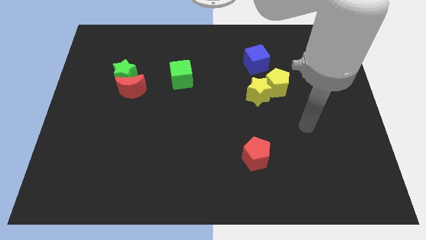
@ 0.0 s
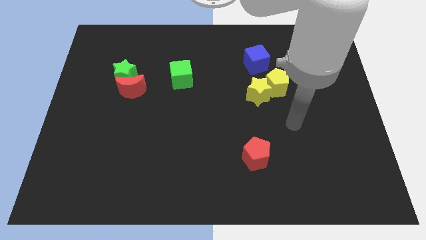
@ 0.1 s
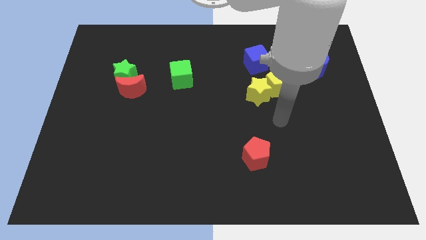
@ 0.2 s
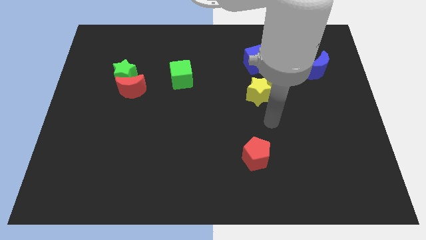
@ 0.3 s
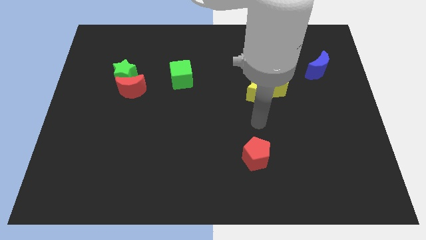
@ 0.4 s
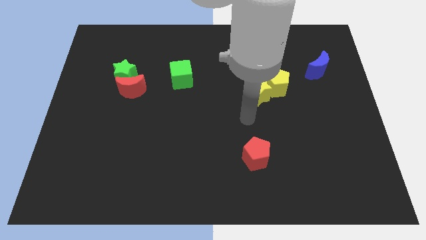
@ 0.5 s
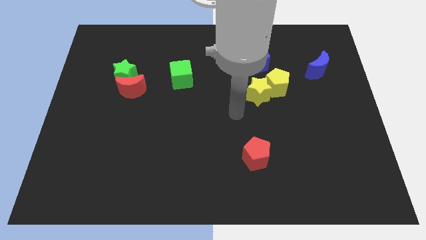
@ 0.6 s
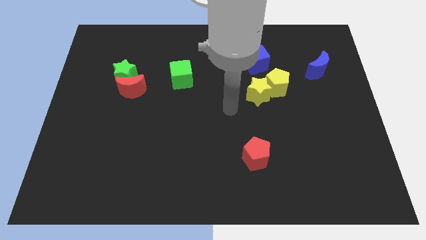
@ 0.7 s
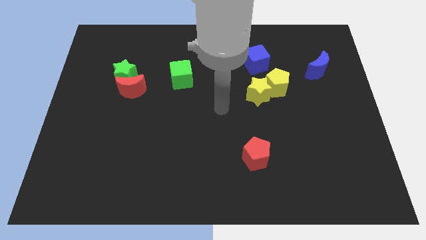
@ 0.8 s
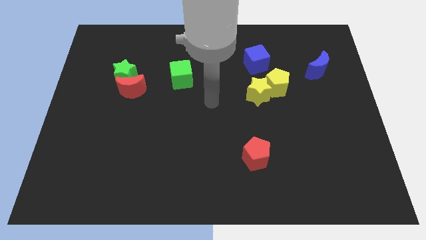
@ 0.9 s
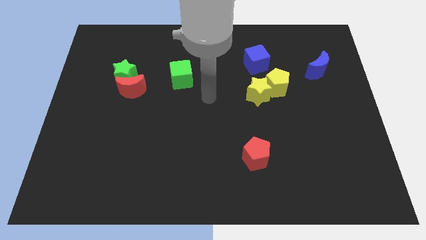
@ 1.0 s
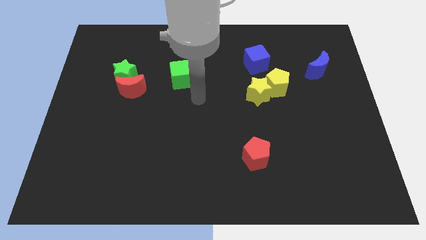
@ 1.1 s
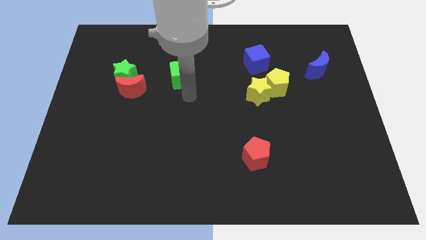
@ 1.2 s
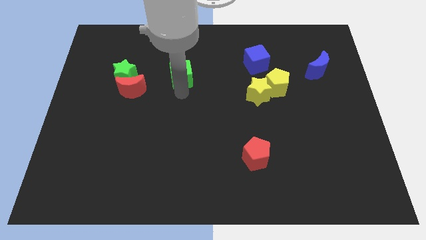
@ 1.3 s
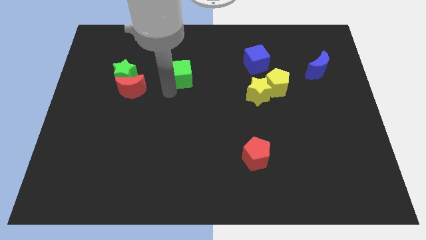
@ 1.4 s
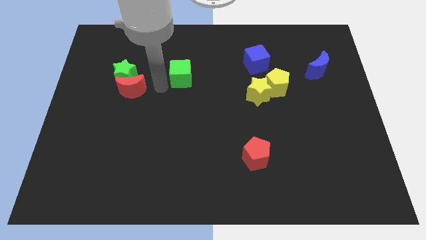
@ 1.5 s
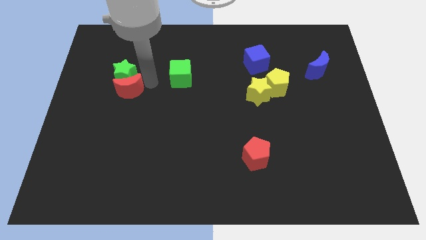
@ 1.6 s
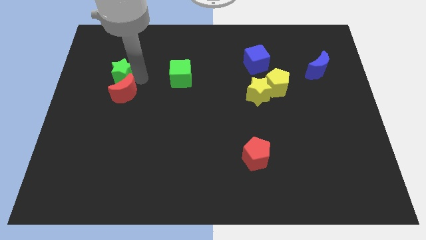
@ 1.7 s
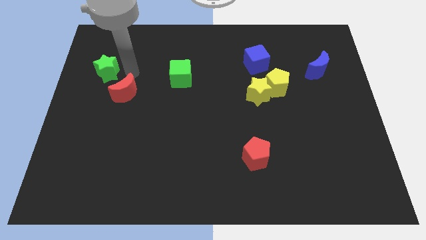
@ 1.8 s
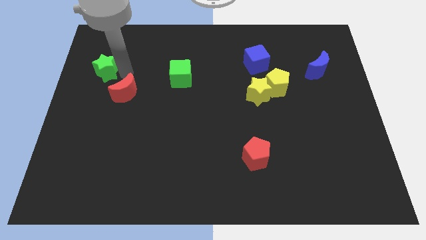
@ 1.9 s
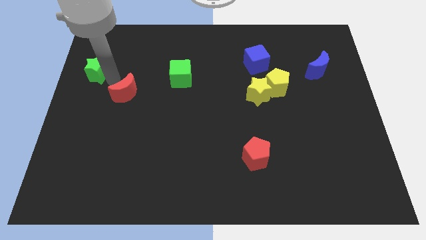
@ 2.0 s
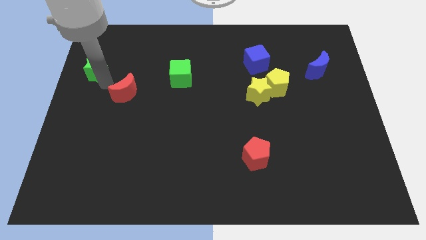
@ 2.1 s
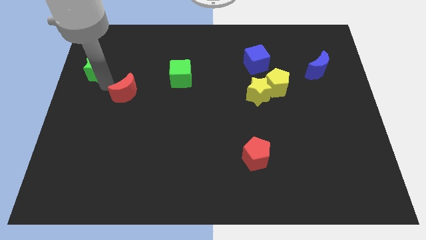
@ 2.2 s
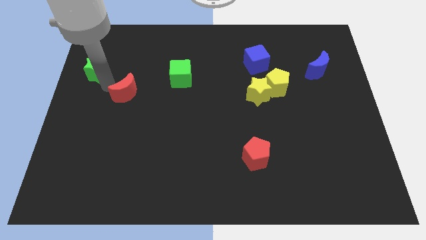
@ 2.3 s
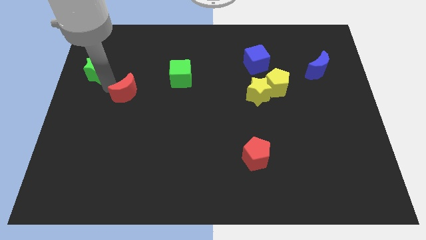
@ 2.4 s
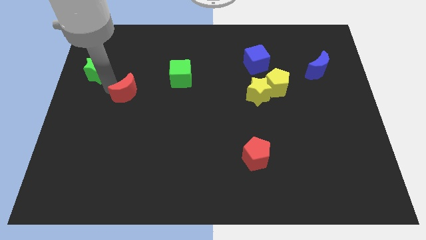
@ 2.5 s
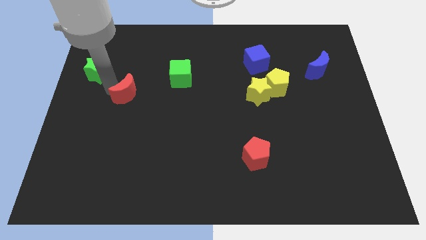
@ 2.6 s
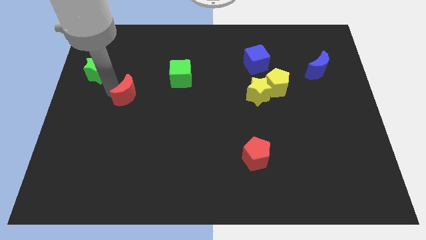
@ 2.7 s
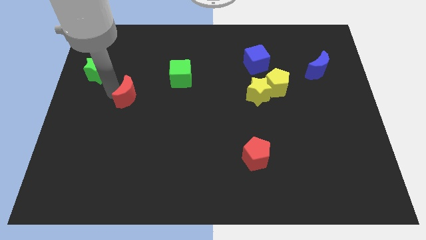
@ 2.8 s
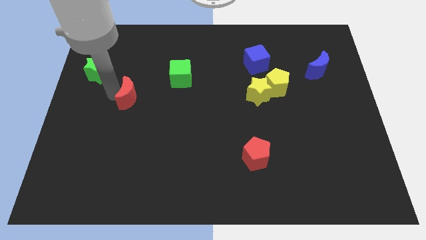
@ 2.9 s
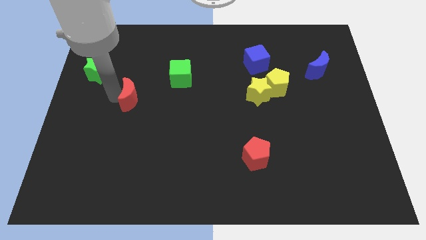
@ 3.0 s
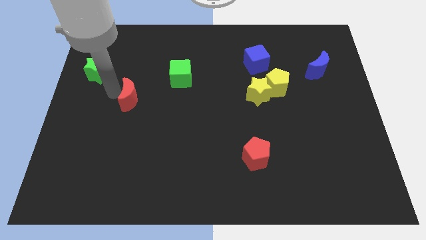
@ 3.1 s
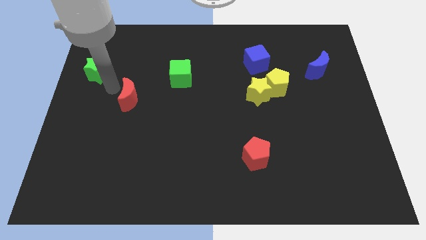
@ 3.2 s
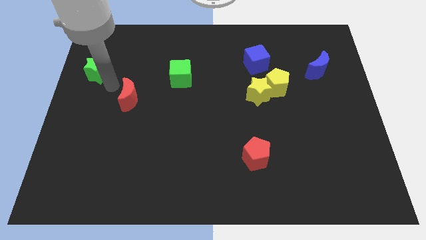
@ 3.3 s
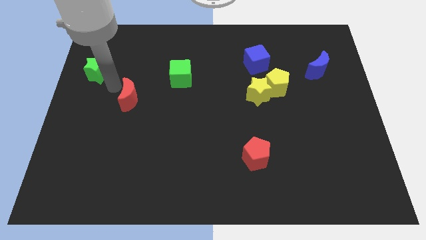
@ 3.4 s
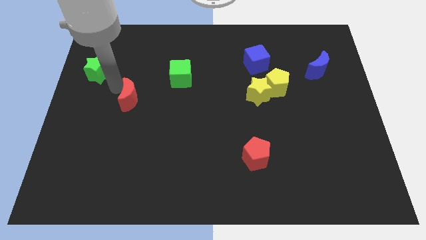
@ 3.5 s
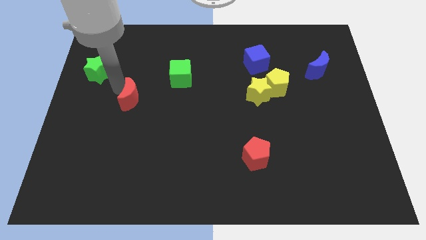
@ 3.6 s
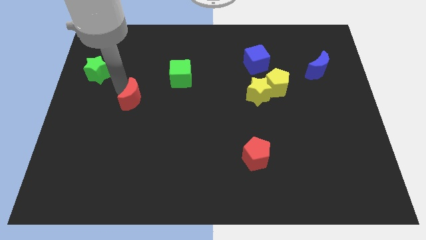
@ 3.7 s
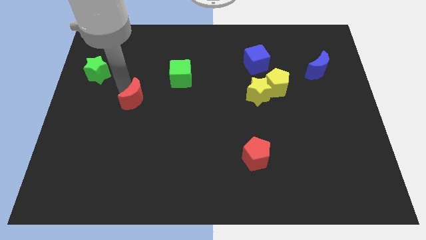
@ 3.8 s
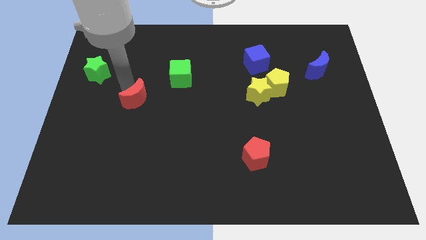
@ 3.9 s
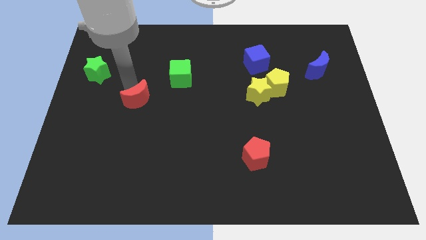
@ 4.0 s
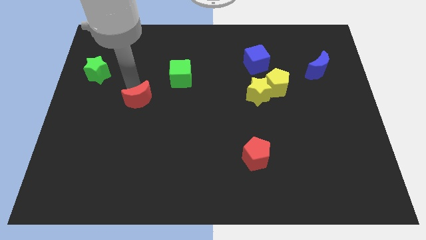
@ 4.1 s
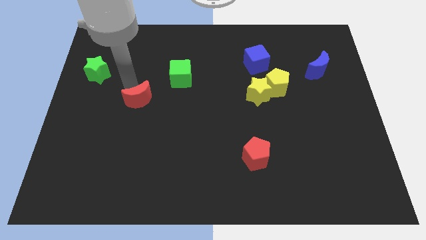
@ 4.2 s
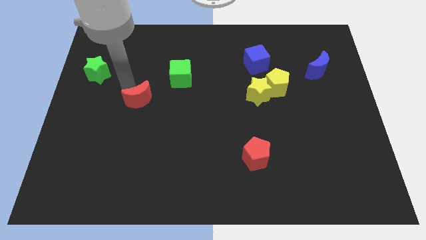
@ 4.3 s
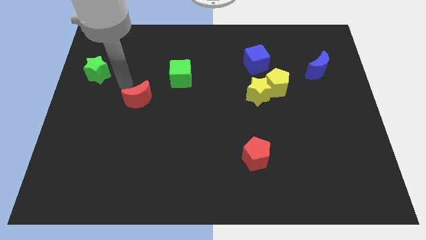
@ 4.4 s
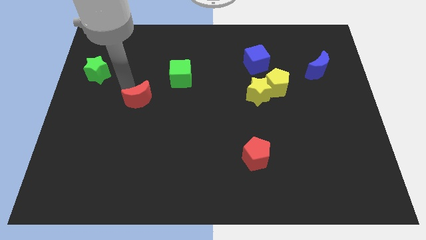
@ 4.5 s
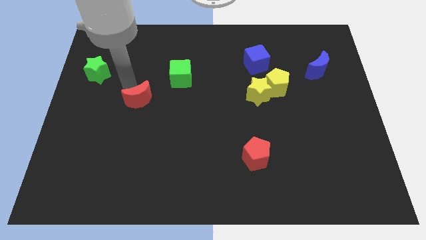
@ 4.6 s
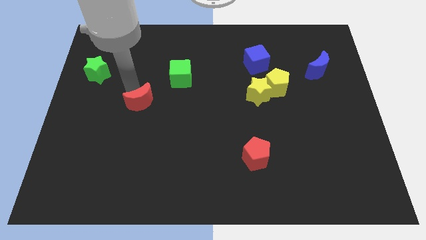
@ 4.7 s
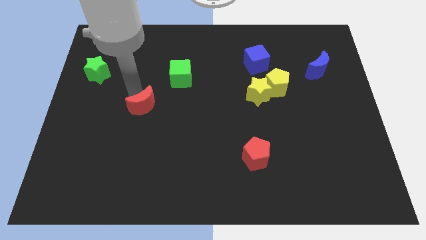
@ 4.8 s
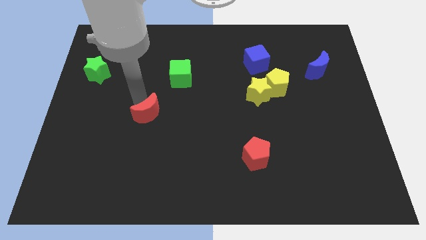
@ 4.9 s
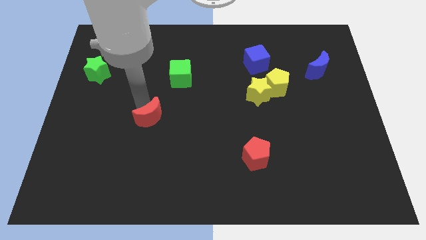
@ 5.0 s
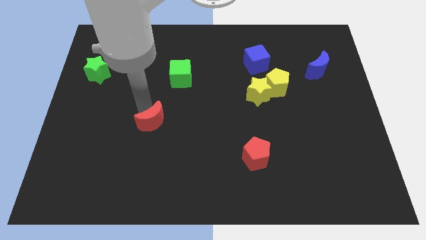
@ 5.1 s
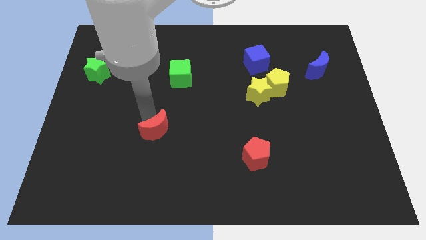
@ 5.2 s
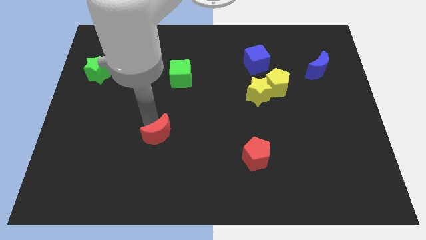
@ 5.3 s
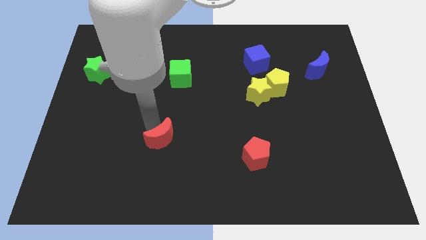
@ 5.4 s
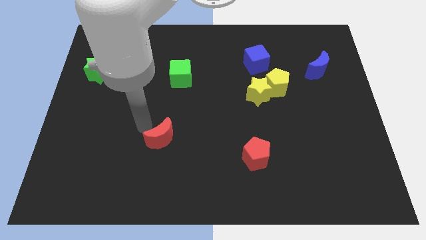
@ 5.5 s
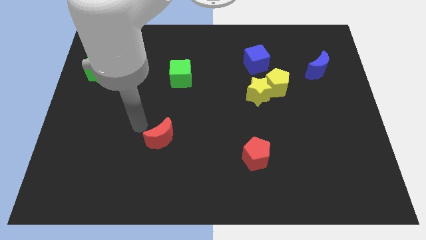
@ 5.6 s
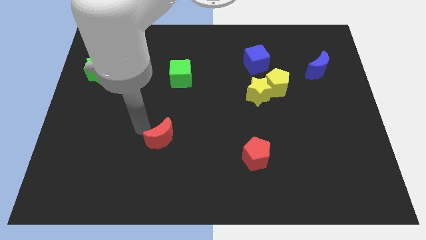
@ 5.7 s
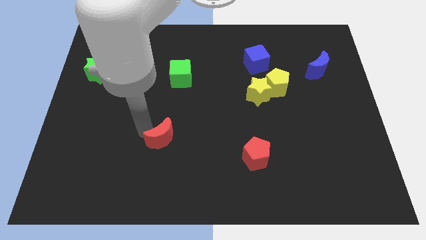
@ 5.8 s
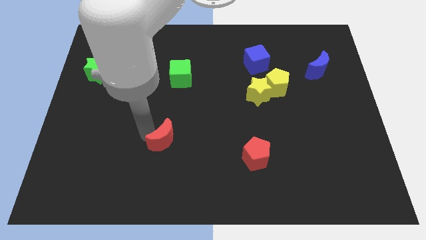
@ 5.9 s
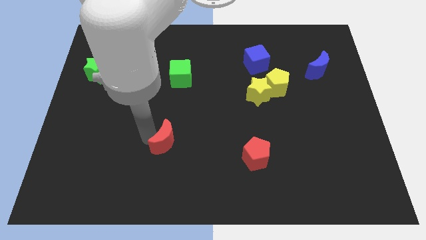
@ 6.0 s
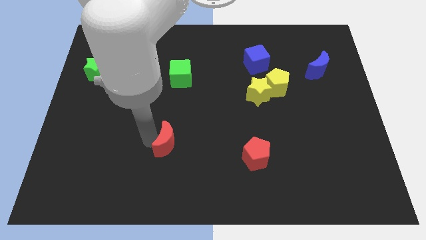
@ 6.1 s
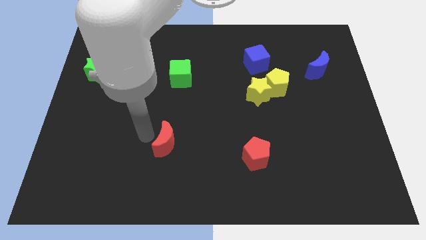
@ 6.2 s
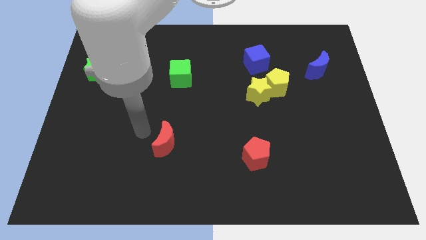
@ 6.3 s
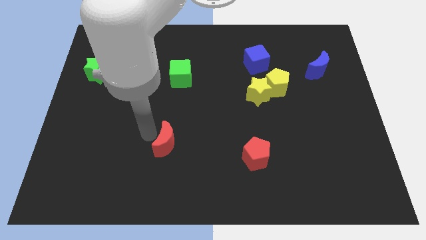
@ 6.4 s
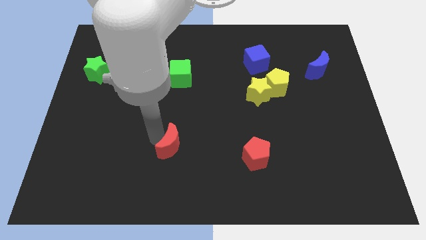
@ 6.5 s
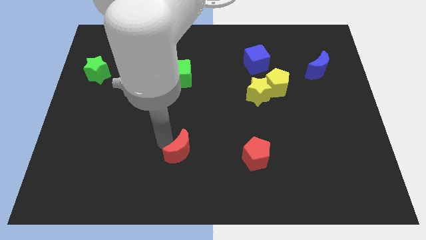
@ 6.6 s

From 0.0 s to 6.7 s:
push the red moon diagonally down and right

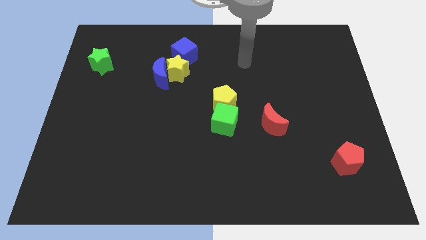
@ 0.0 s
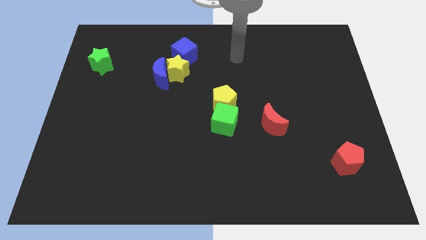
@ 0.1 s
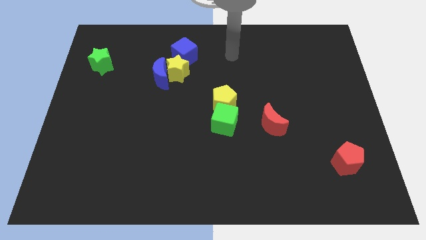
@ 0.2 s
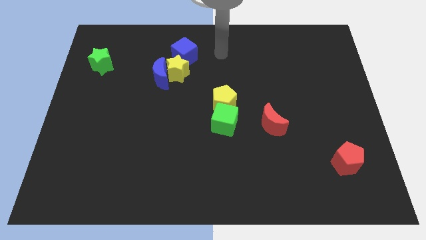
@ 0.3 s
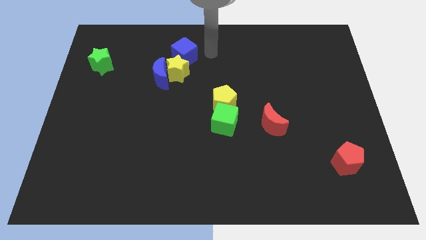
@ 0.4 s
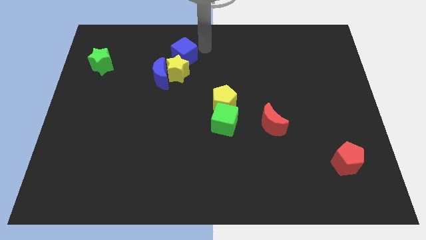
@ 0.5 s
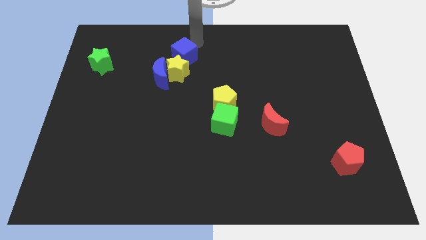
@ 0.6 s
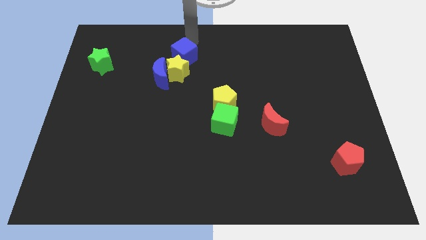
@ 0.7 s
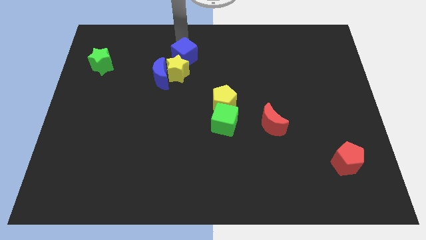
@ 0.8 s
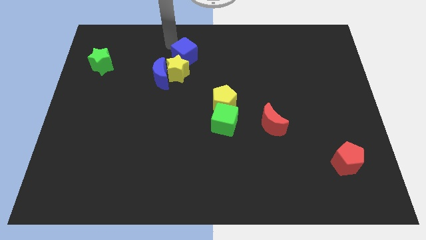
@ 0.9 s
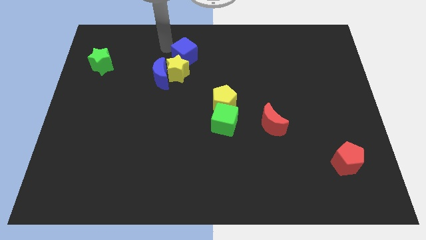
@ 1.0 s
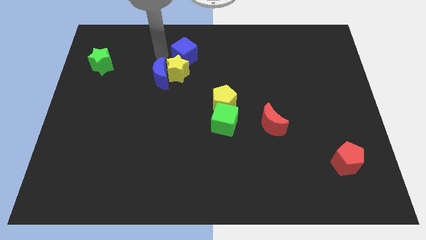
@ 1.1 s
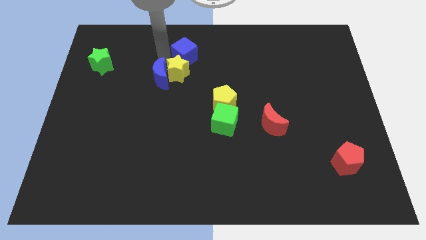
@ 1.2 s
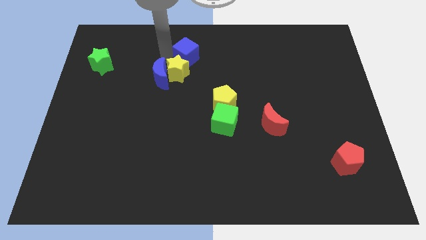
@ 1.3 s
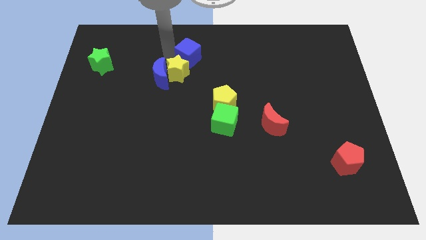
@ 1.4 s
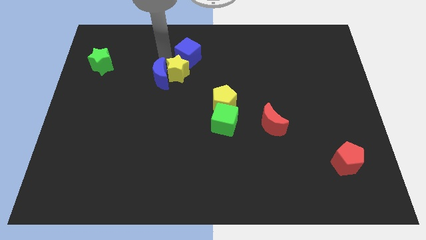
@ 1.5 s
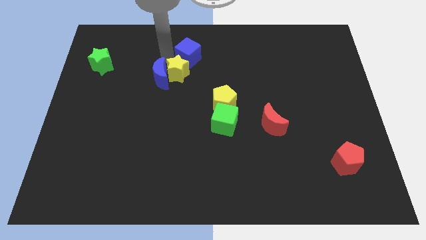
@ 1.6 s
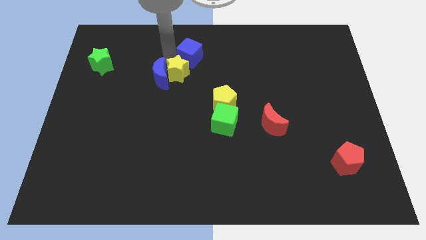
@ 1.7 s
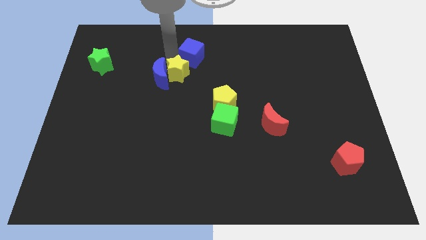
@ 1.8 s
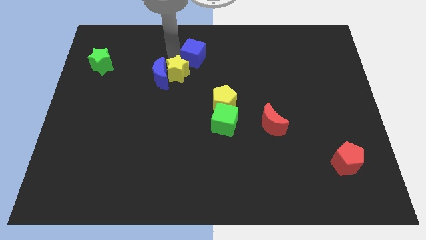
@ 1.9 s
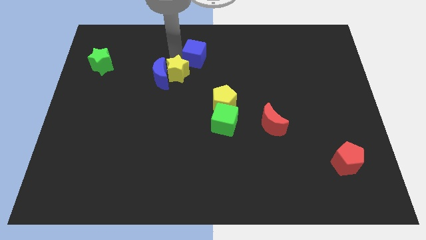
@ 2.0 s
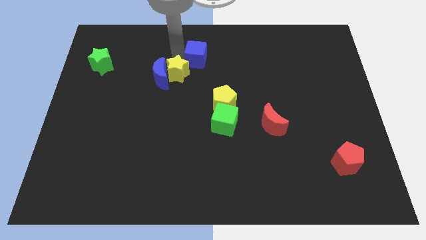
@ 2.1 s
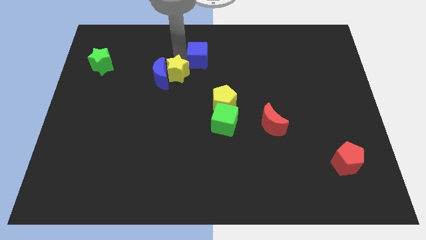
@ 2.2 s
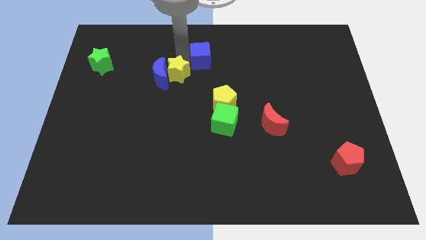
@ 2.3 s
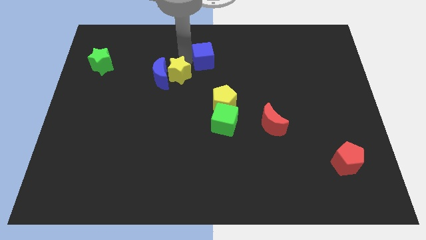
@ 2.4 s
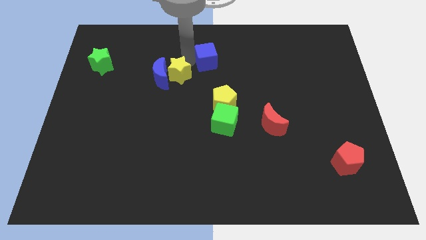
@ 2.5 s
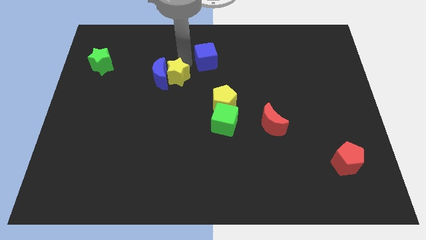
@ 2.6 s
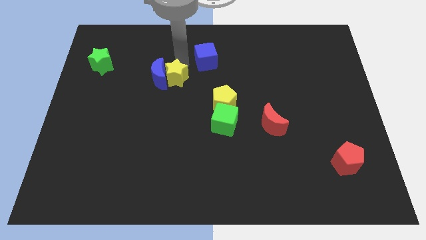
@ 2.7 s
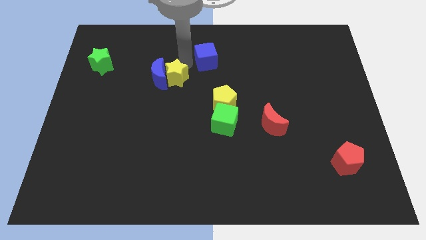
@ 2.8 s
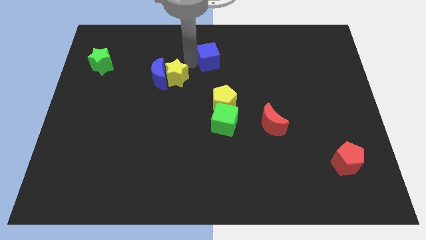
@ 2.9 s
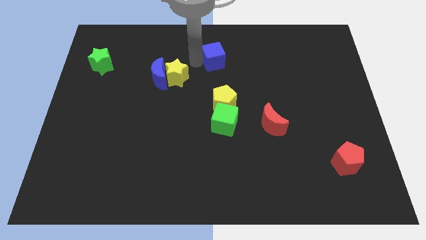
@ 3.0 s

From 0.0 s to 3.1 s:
move the blue cube a little to the right
